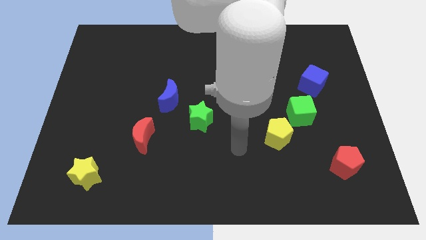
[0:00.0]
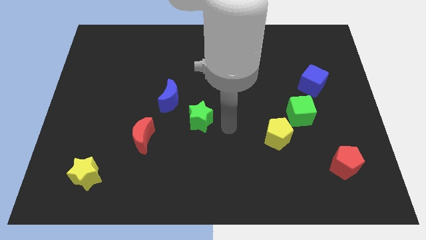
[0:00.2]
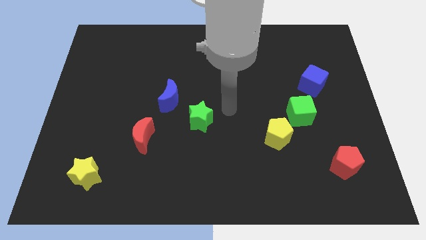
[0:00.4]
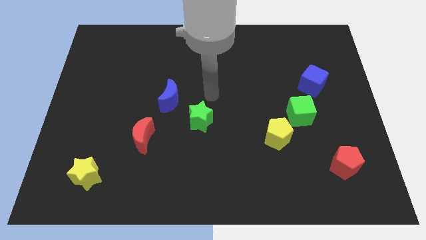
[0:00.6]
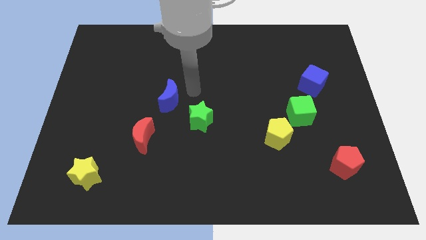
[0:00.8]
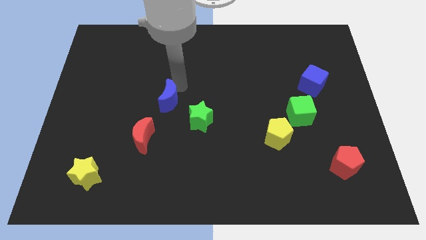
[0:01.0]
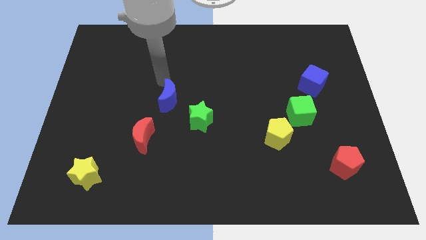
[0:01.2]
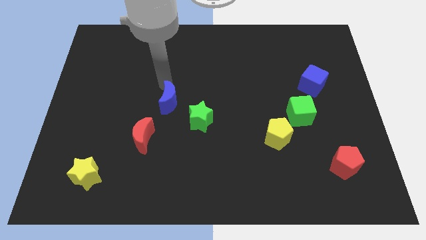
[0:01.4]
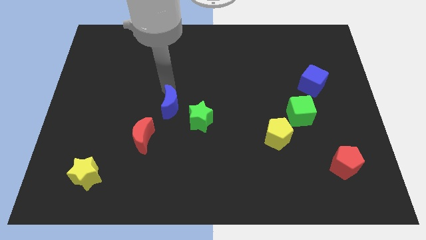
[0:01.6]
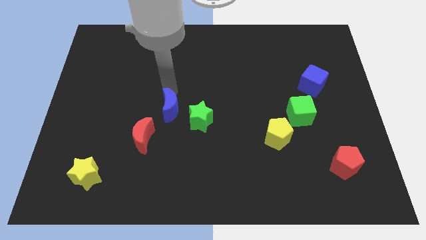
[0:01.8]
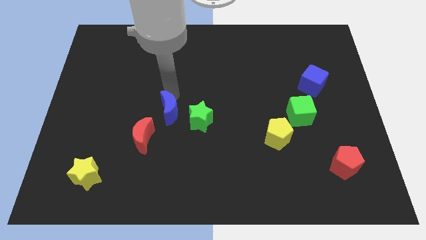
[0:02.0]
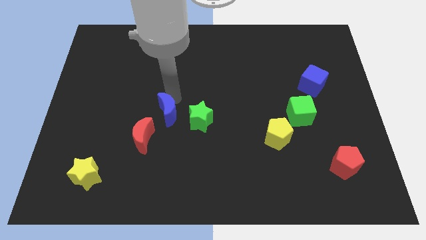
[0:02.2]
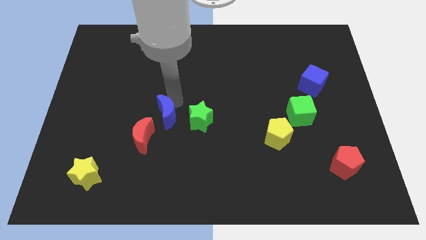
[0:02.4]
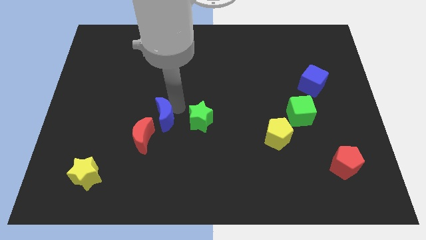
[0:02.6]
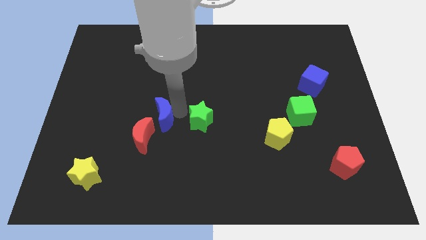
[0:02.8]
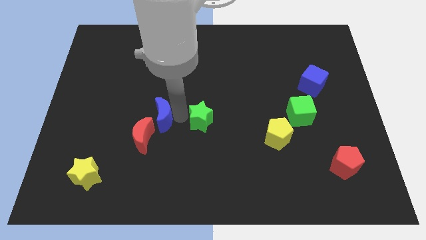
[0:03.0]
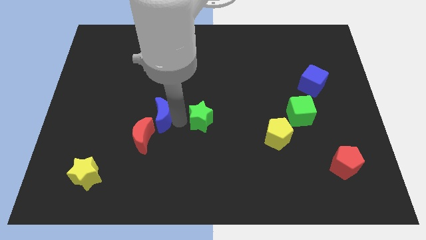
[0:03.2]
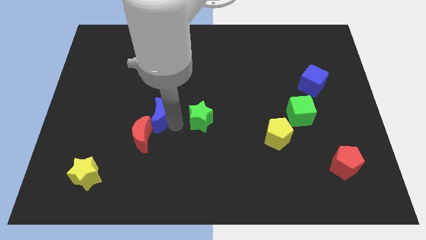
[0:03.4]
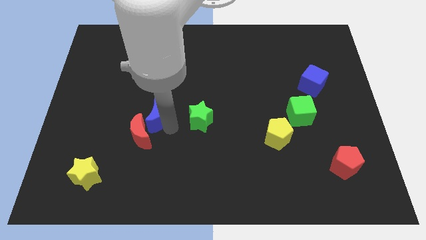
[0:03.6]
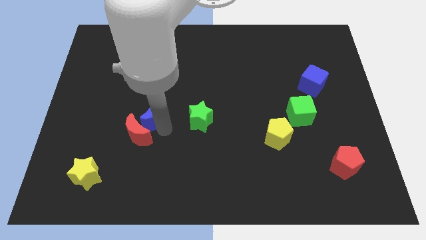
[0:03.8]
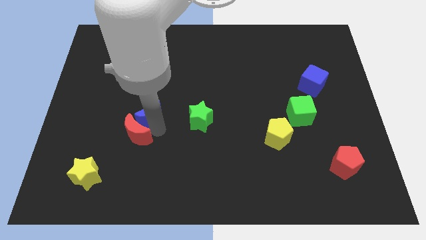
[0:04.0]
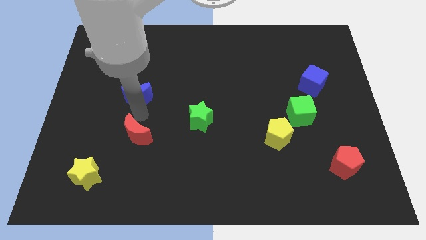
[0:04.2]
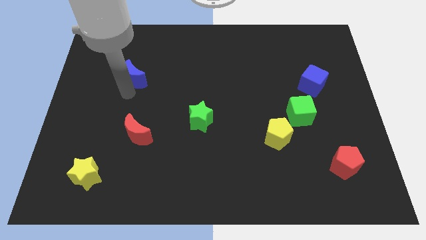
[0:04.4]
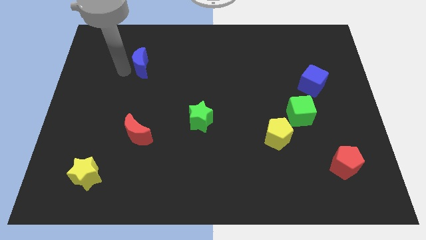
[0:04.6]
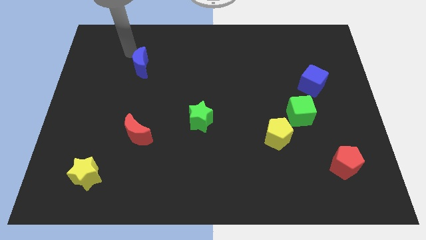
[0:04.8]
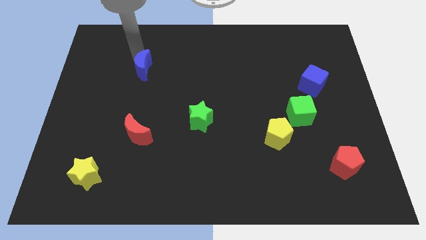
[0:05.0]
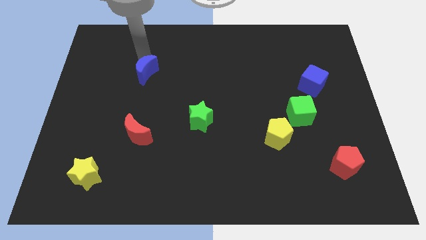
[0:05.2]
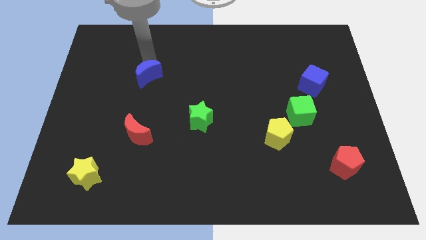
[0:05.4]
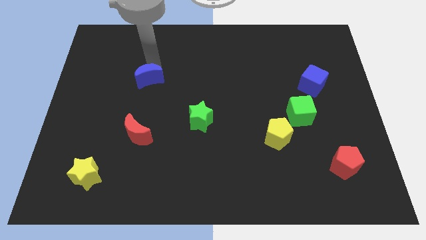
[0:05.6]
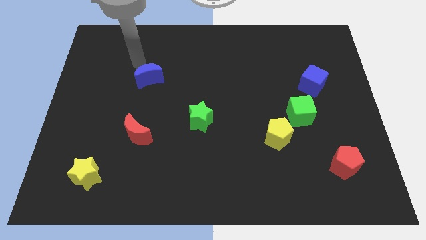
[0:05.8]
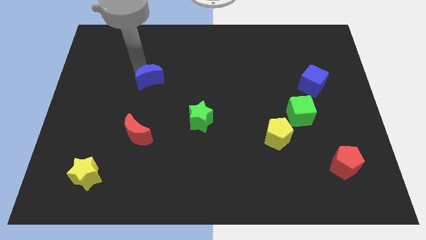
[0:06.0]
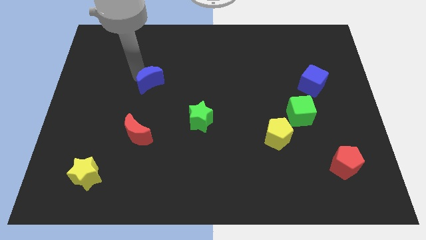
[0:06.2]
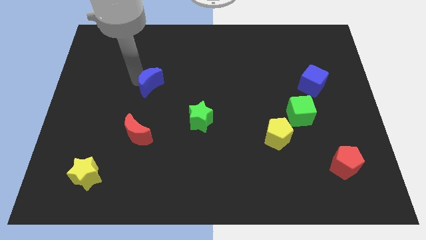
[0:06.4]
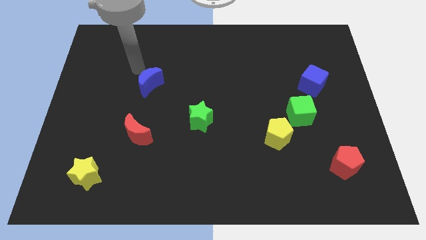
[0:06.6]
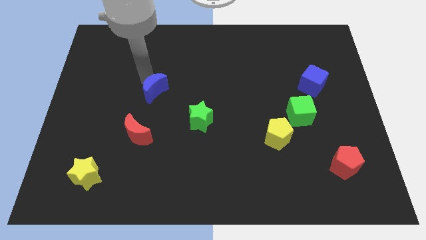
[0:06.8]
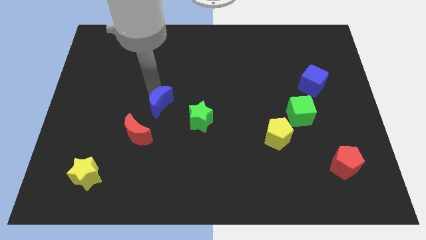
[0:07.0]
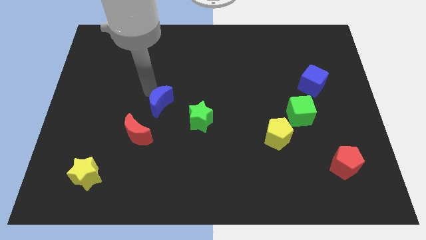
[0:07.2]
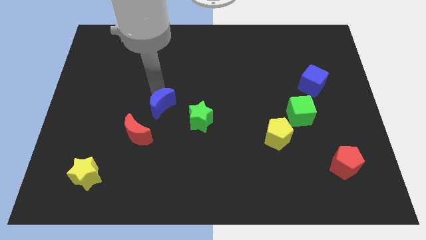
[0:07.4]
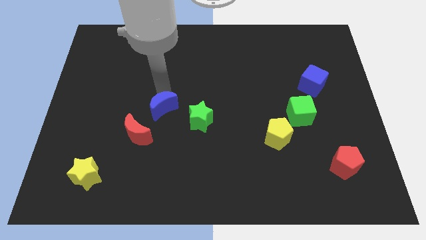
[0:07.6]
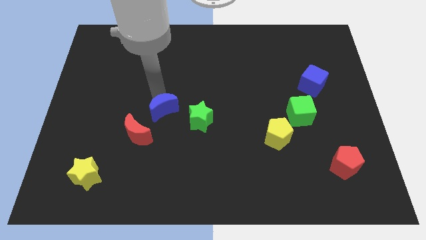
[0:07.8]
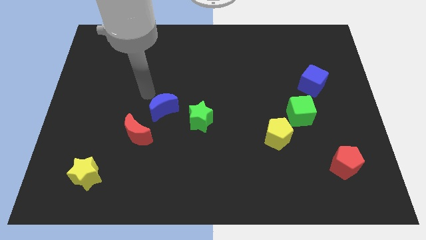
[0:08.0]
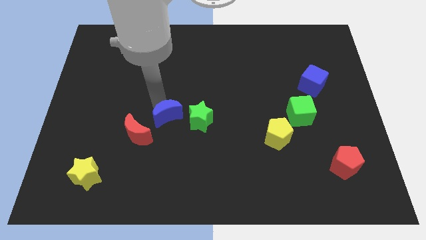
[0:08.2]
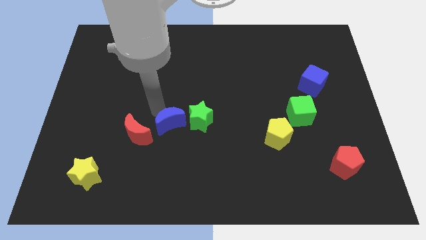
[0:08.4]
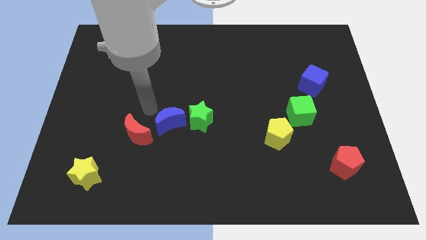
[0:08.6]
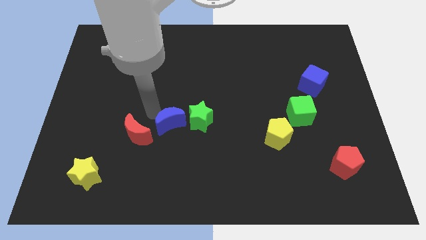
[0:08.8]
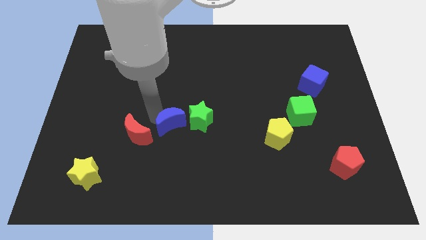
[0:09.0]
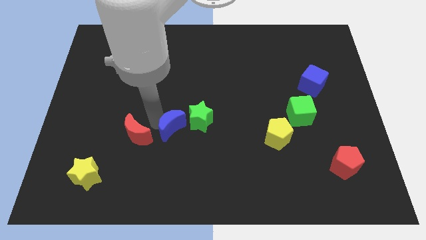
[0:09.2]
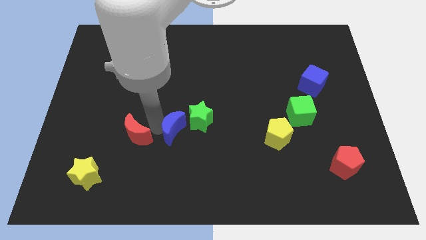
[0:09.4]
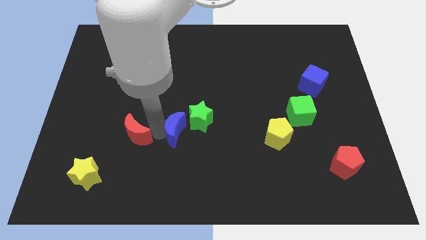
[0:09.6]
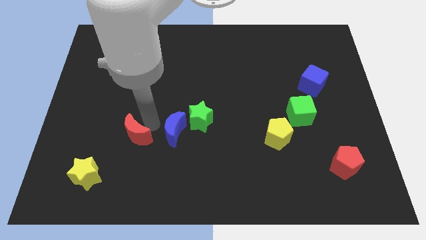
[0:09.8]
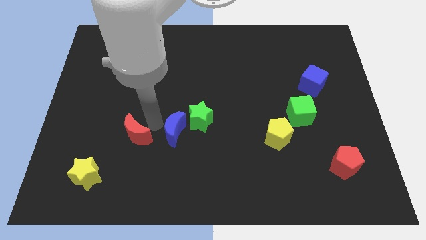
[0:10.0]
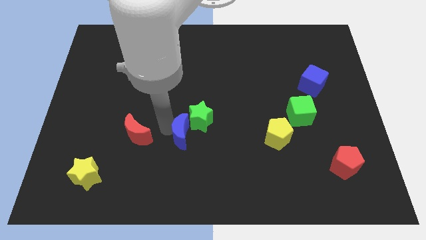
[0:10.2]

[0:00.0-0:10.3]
slightly move the blue moon down and then right

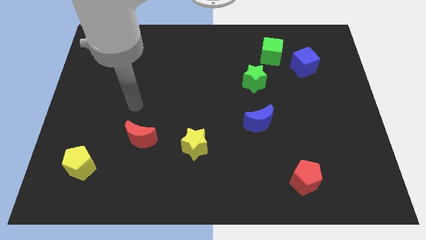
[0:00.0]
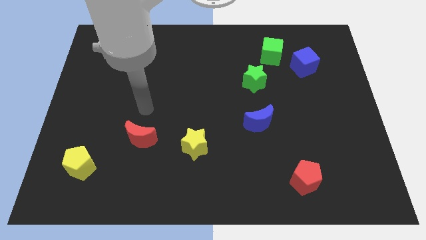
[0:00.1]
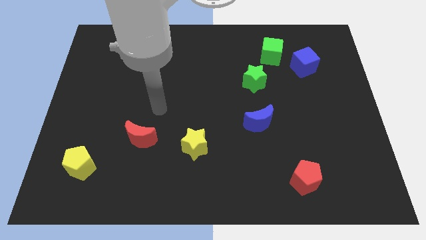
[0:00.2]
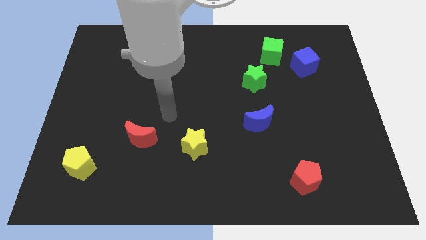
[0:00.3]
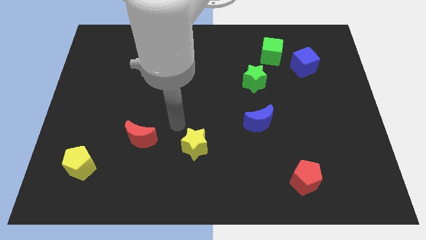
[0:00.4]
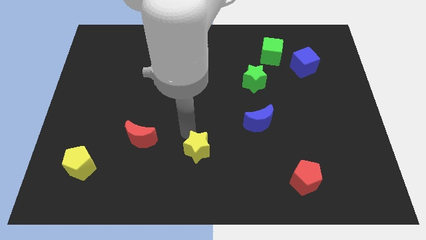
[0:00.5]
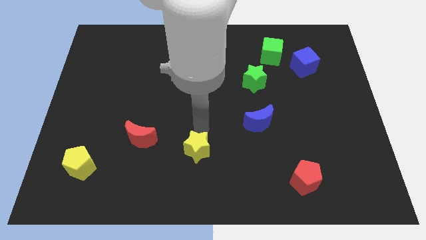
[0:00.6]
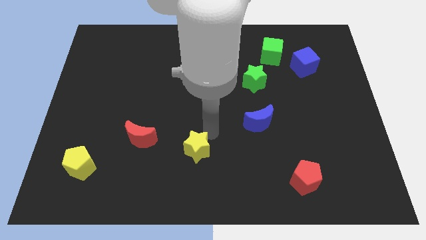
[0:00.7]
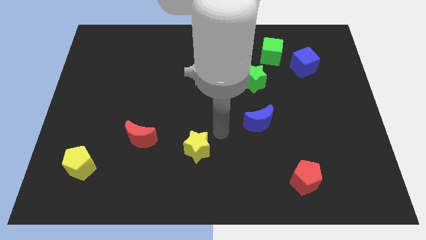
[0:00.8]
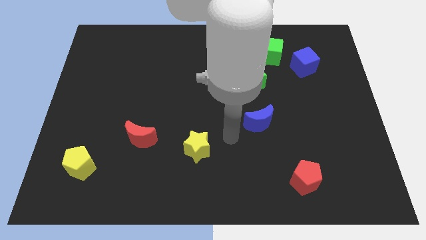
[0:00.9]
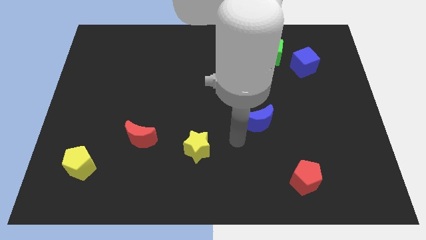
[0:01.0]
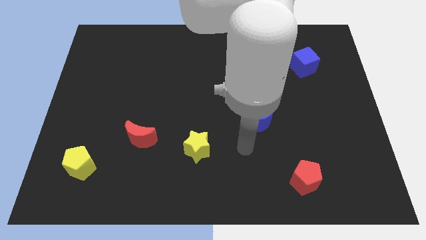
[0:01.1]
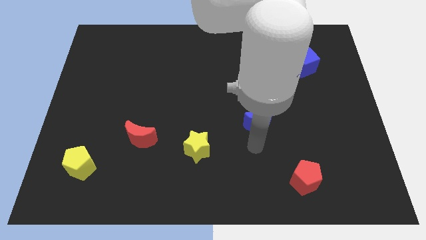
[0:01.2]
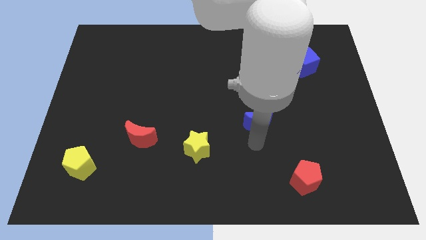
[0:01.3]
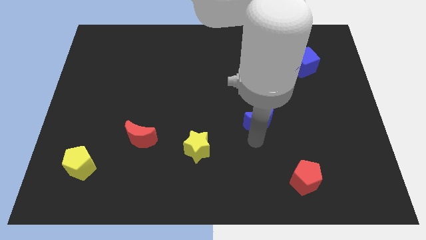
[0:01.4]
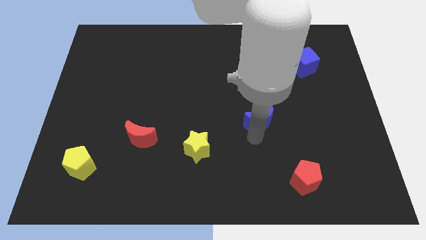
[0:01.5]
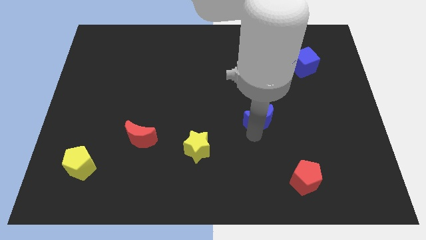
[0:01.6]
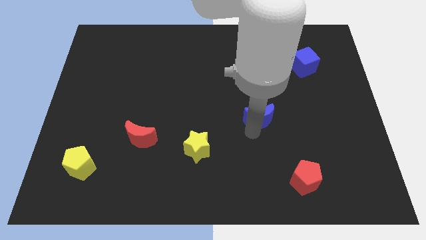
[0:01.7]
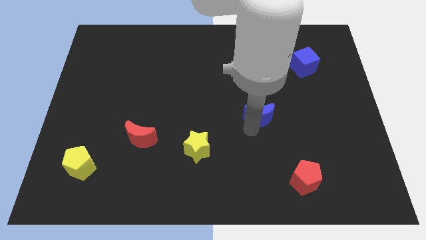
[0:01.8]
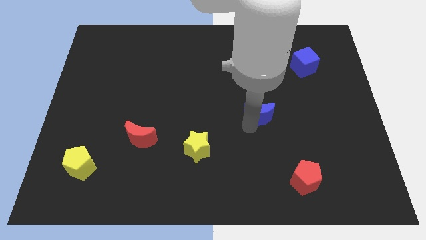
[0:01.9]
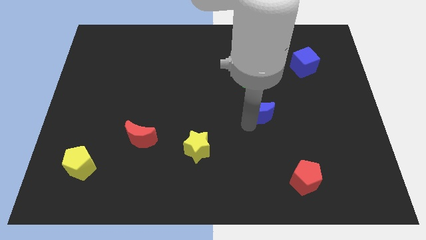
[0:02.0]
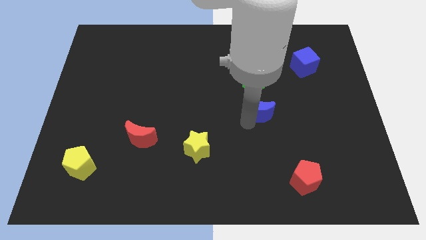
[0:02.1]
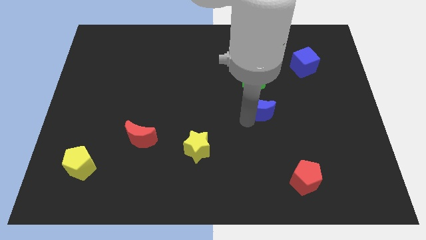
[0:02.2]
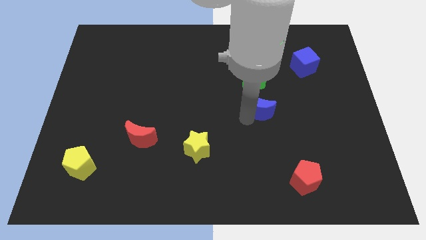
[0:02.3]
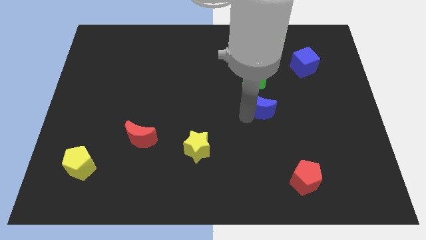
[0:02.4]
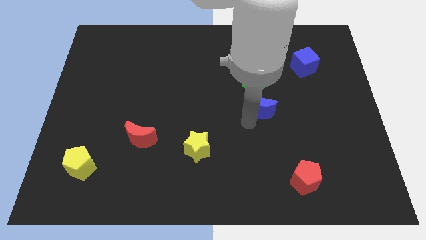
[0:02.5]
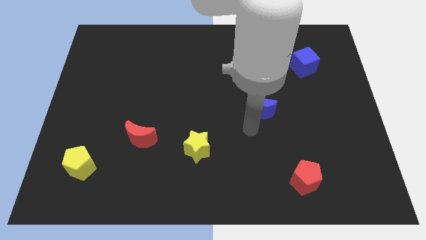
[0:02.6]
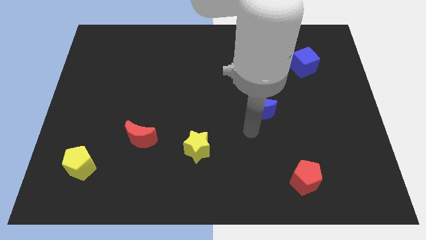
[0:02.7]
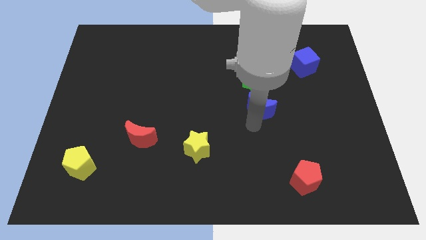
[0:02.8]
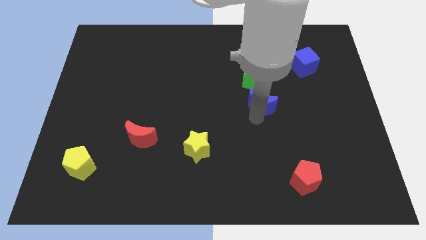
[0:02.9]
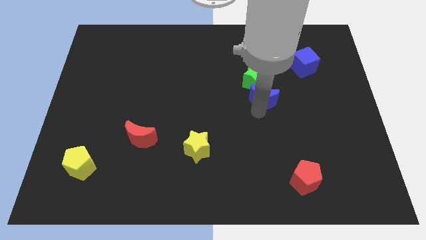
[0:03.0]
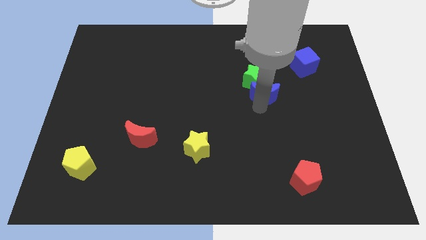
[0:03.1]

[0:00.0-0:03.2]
move the blue moon a little bit up
